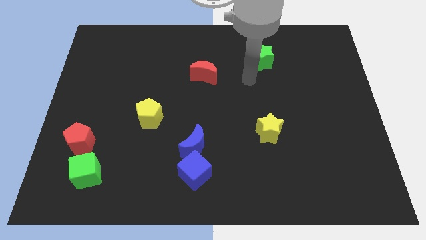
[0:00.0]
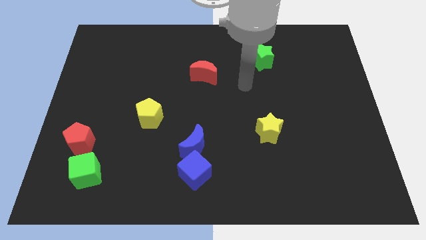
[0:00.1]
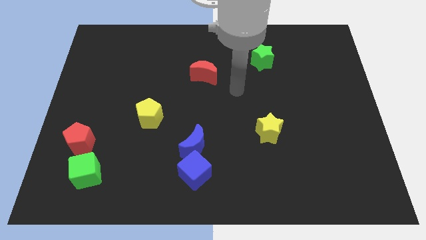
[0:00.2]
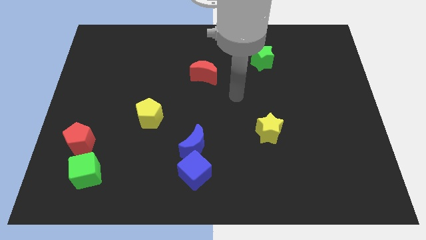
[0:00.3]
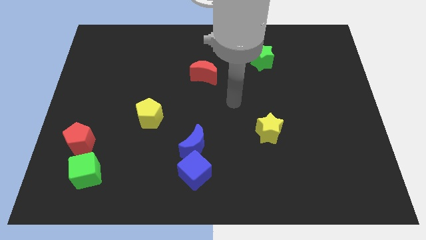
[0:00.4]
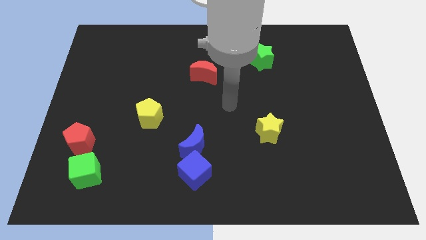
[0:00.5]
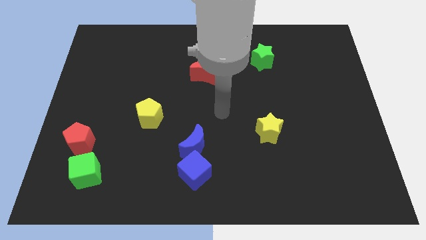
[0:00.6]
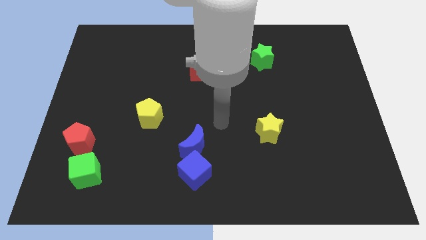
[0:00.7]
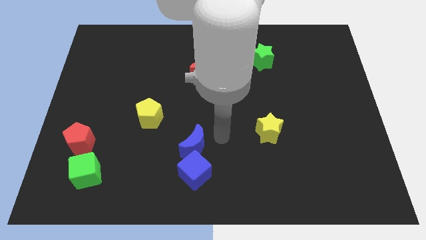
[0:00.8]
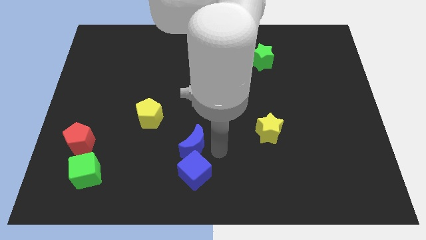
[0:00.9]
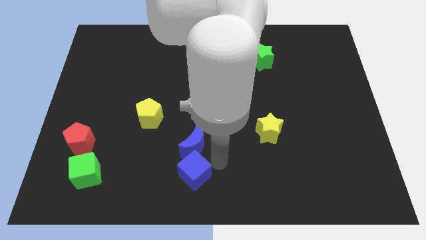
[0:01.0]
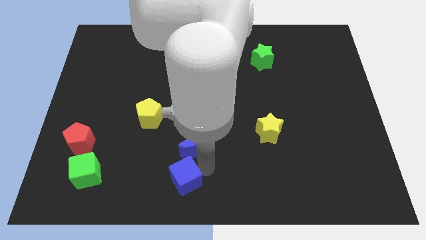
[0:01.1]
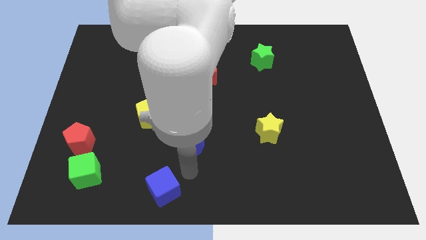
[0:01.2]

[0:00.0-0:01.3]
pull the blue moon apart from the blue cube

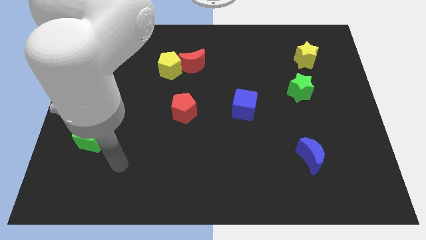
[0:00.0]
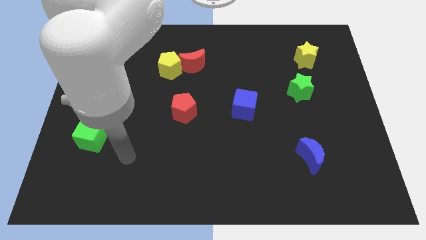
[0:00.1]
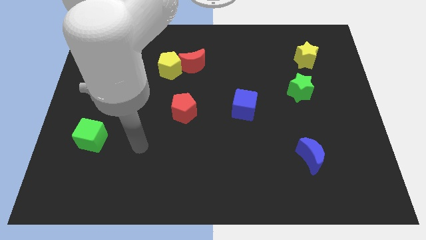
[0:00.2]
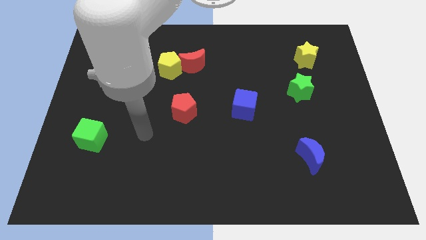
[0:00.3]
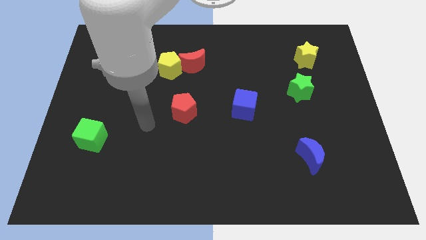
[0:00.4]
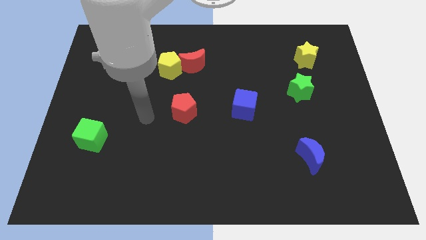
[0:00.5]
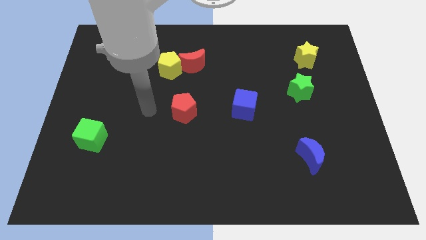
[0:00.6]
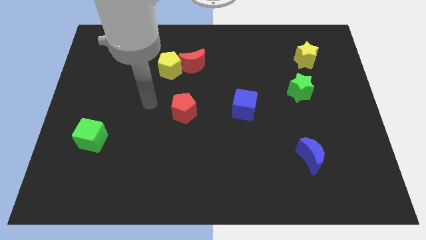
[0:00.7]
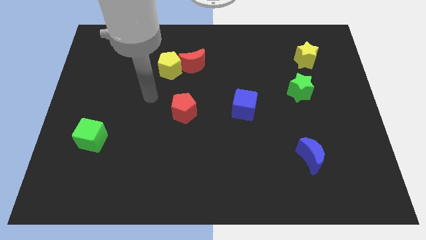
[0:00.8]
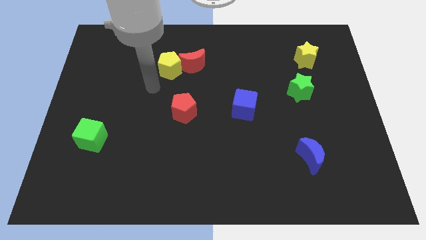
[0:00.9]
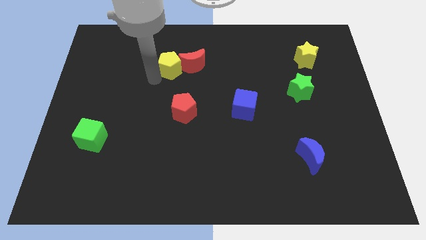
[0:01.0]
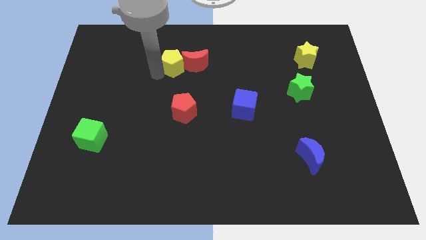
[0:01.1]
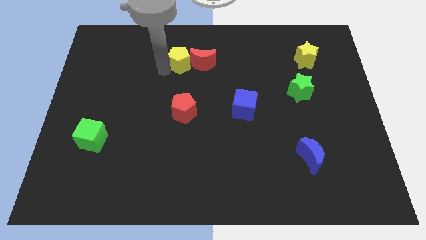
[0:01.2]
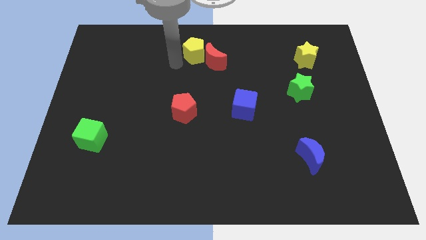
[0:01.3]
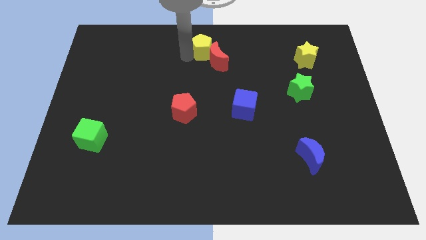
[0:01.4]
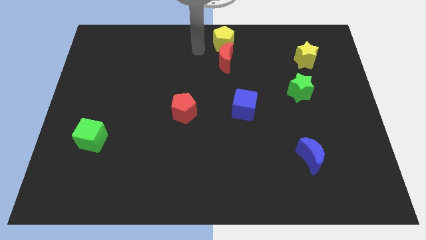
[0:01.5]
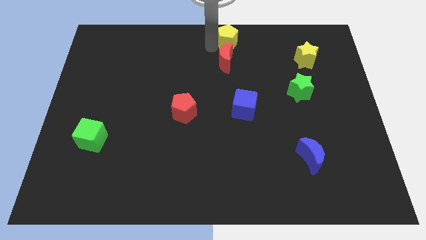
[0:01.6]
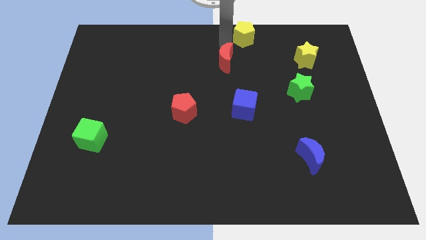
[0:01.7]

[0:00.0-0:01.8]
pull the red moon apart from the yellow pentagon

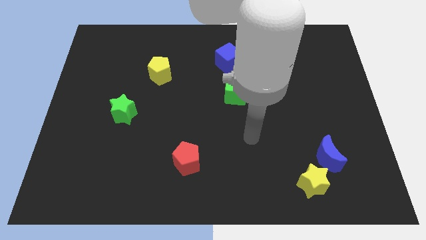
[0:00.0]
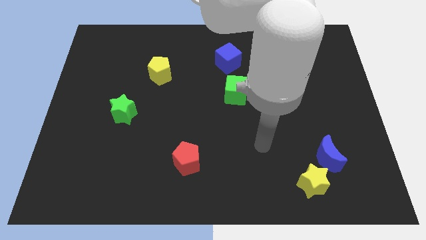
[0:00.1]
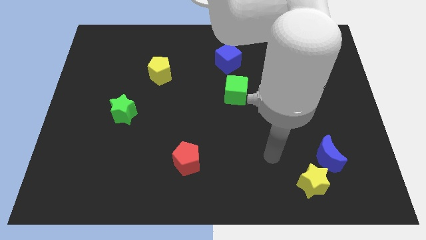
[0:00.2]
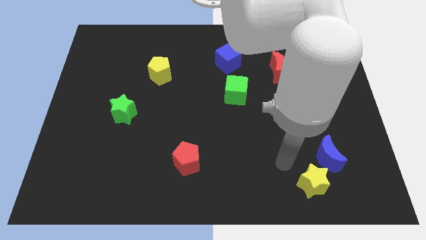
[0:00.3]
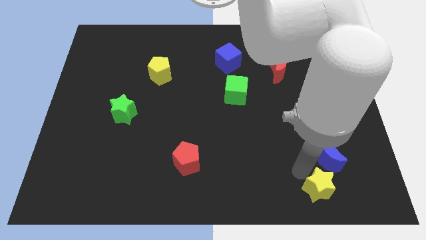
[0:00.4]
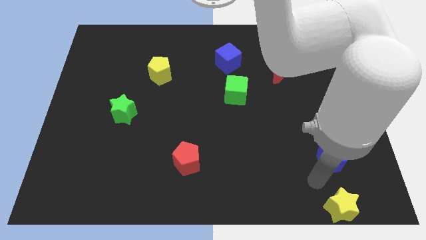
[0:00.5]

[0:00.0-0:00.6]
move the blue moon away from the yellow star

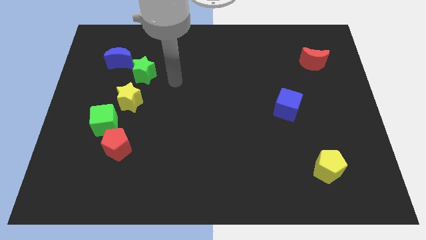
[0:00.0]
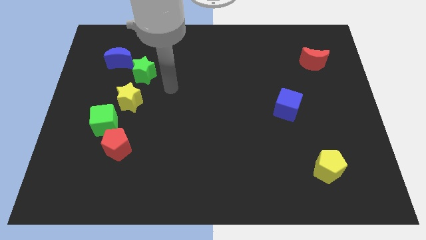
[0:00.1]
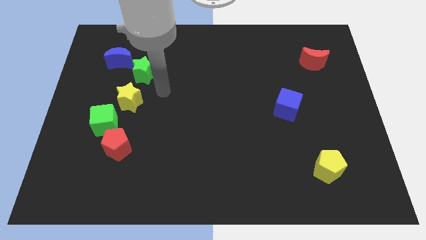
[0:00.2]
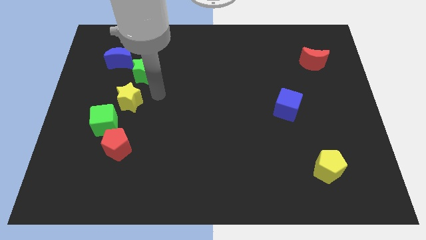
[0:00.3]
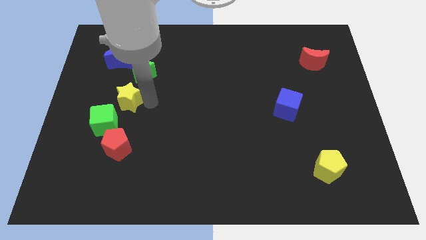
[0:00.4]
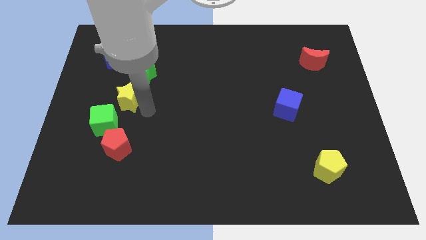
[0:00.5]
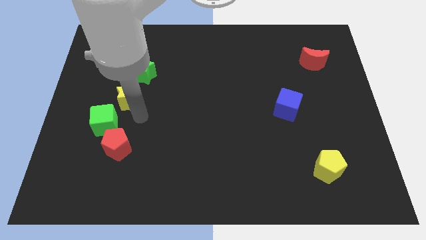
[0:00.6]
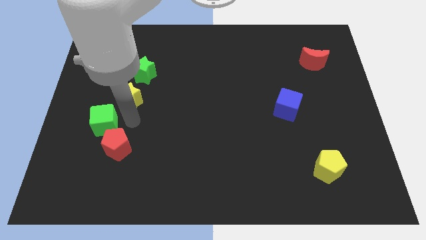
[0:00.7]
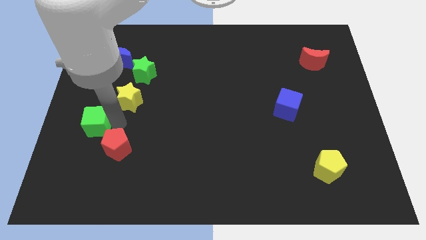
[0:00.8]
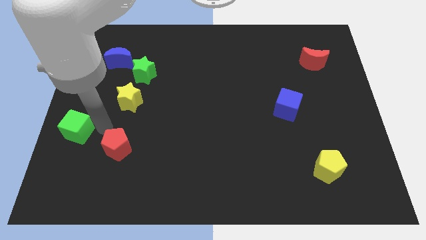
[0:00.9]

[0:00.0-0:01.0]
move the red pentagon away from the green cube

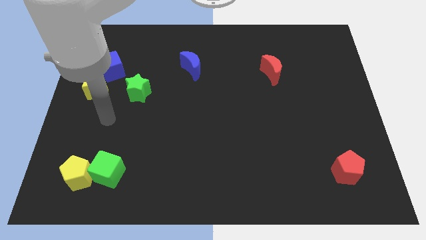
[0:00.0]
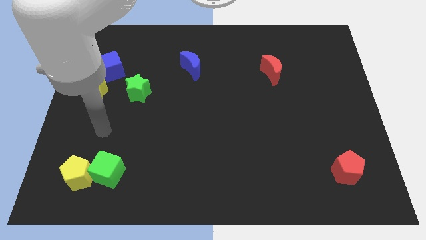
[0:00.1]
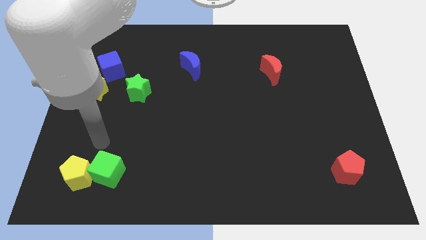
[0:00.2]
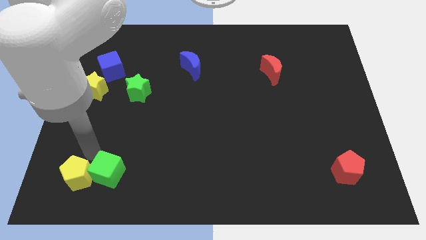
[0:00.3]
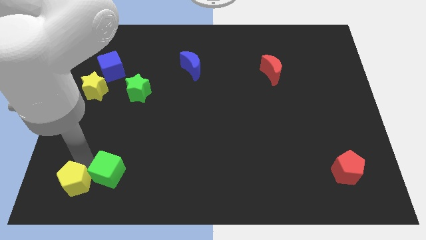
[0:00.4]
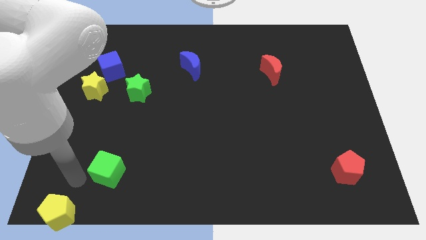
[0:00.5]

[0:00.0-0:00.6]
pull the green cube apart from the yellow pentagon

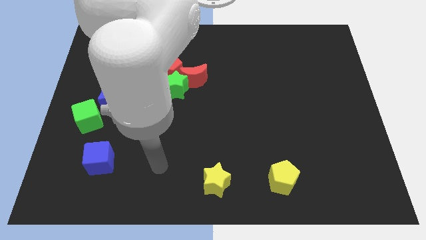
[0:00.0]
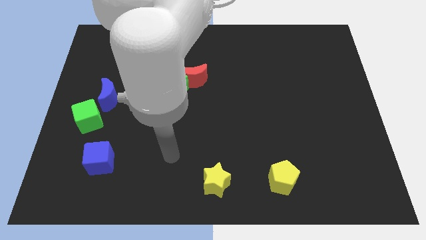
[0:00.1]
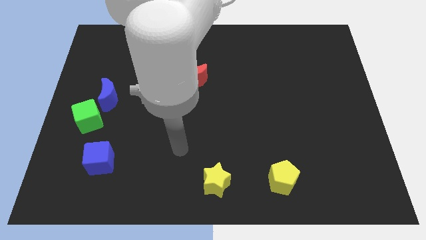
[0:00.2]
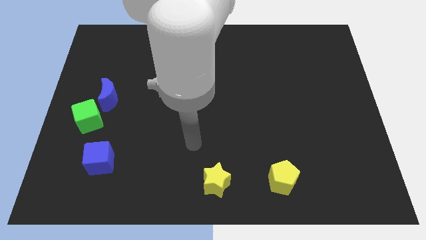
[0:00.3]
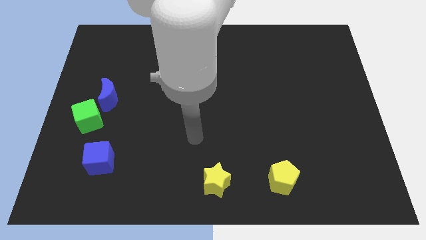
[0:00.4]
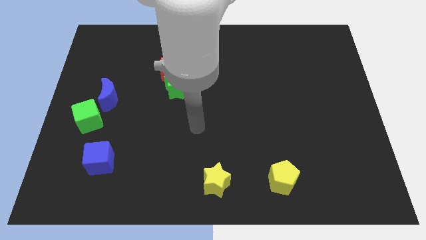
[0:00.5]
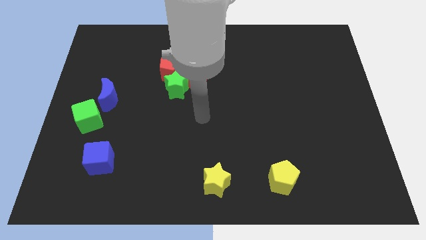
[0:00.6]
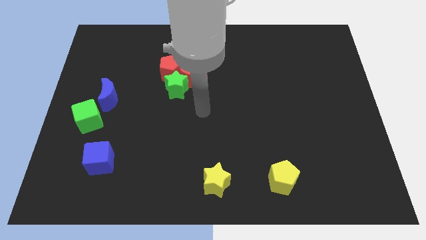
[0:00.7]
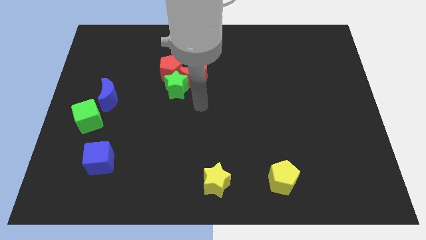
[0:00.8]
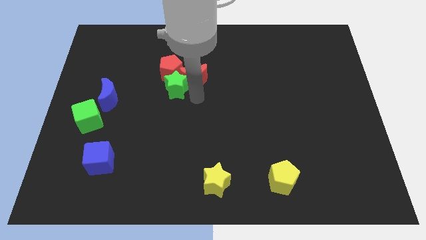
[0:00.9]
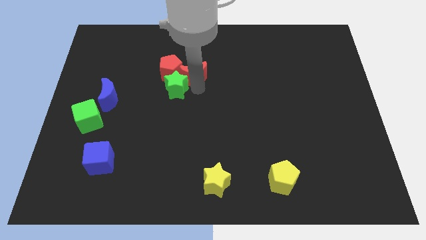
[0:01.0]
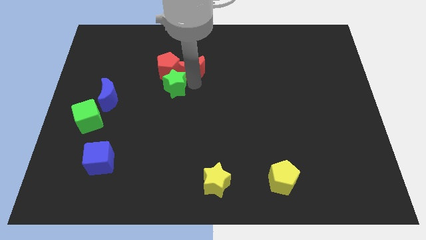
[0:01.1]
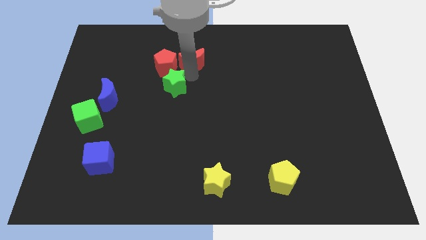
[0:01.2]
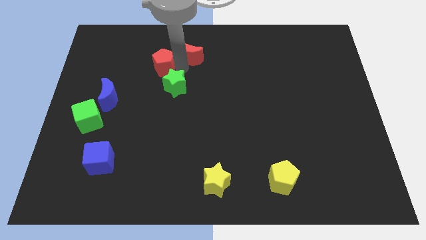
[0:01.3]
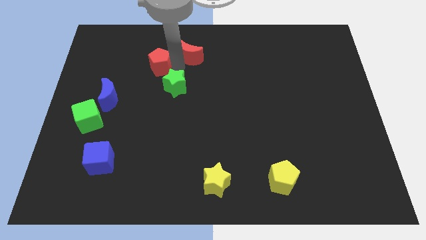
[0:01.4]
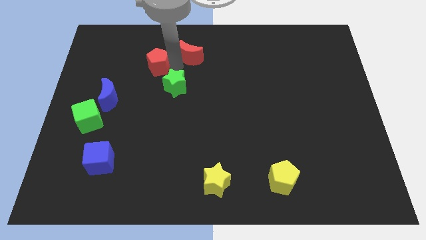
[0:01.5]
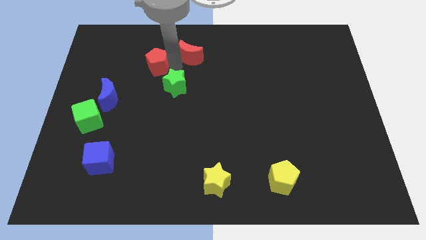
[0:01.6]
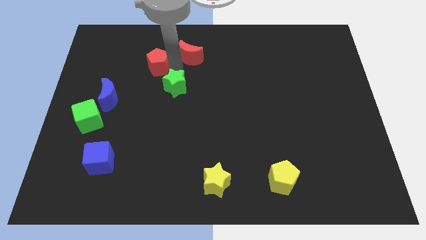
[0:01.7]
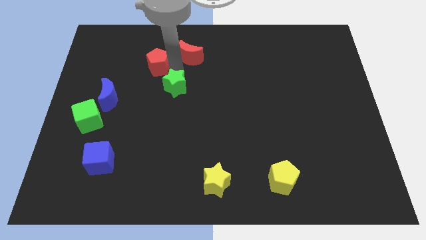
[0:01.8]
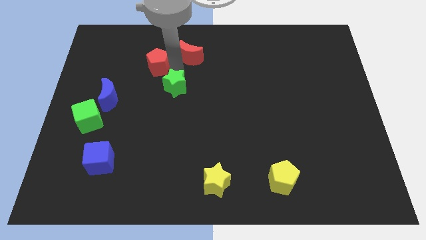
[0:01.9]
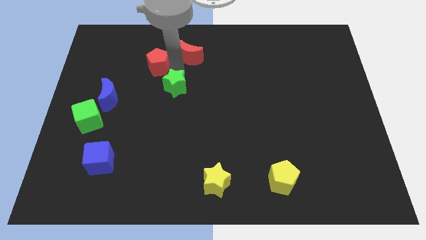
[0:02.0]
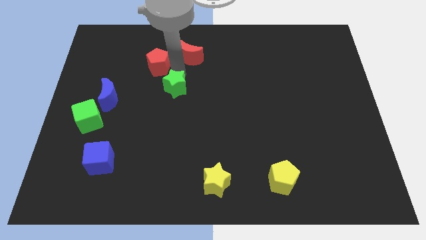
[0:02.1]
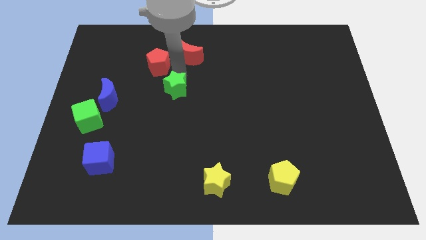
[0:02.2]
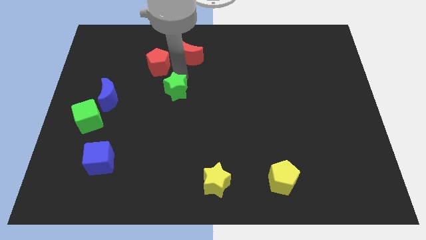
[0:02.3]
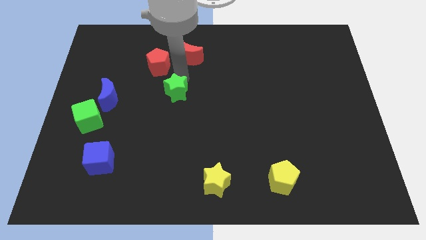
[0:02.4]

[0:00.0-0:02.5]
pull the green star apart from the red moon and red pentagon

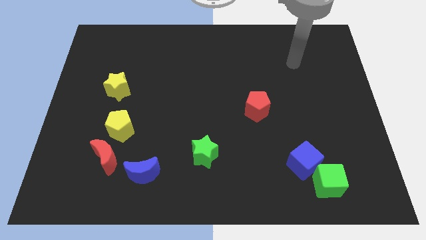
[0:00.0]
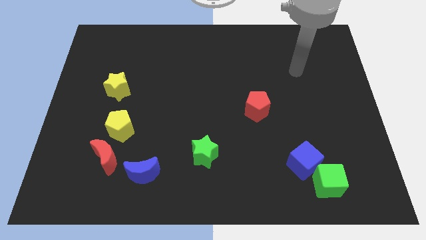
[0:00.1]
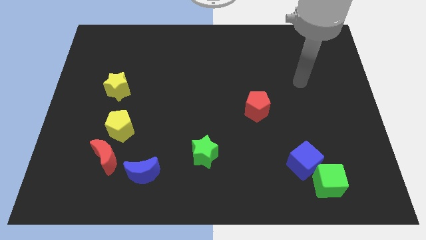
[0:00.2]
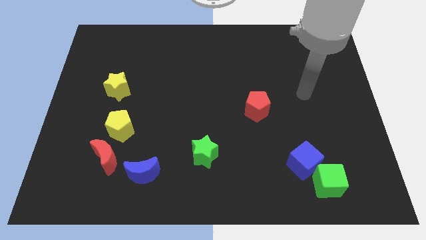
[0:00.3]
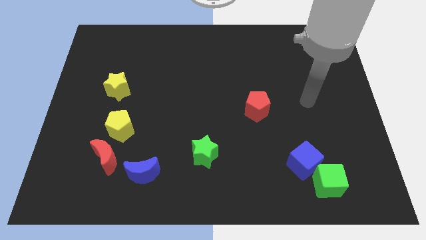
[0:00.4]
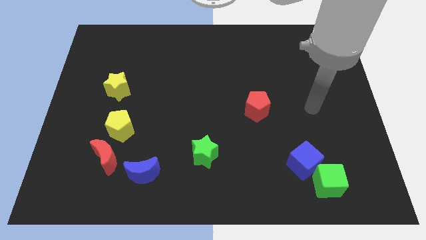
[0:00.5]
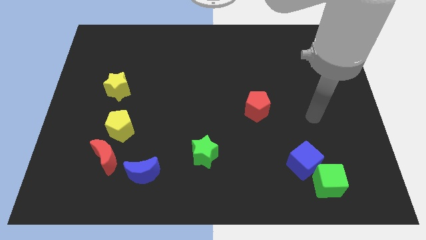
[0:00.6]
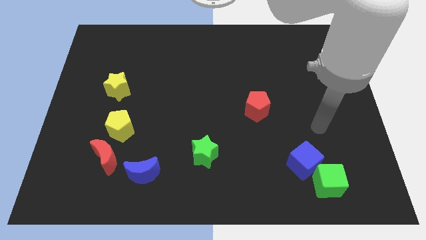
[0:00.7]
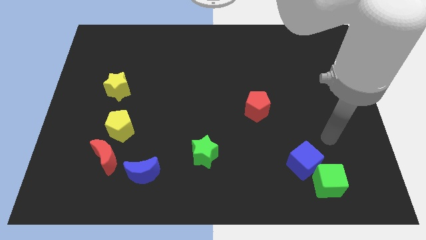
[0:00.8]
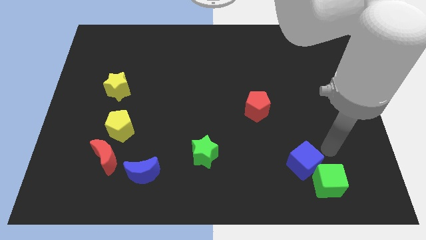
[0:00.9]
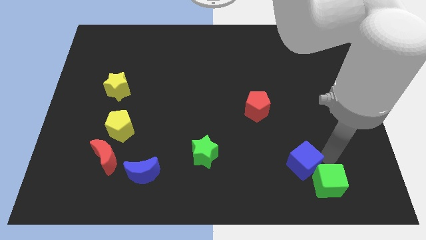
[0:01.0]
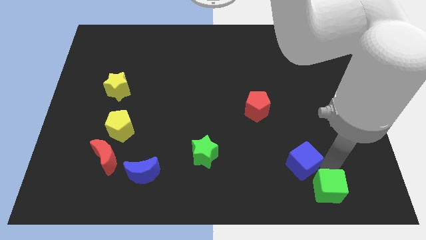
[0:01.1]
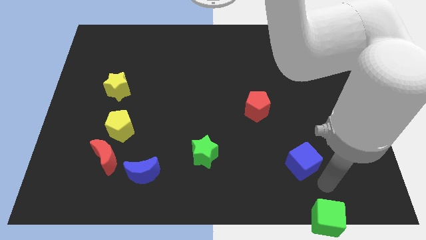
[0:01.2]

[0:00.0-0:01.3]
pull the blue cube apart from the green cube
